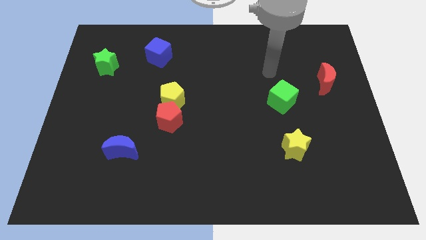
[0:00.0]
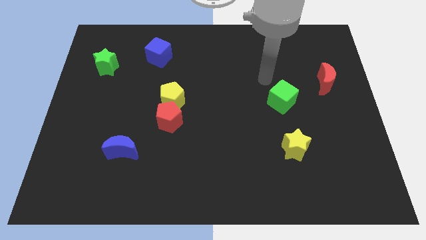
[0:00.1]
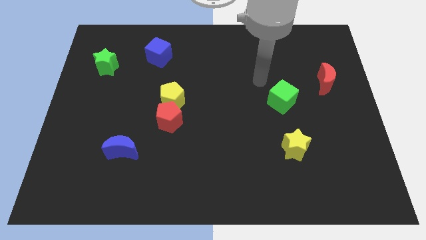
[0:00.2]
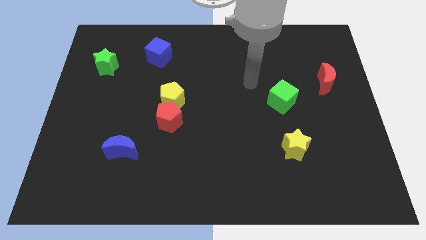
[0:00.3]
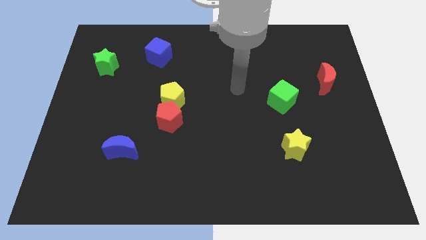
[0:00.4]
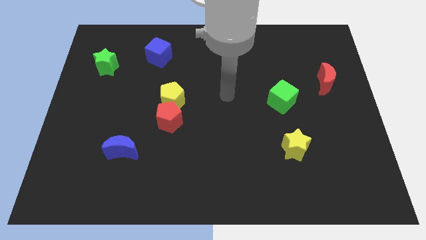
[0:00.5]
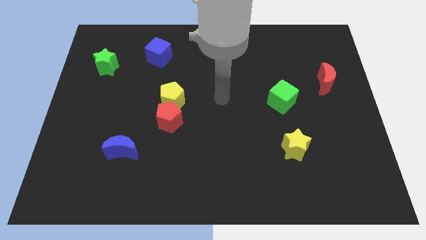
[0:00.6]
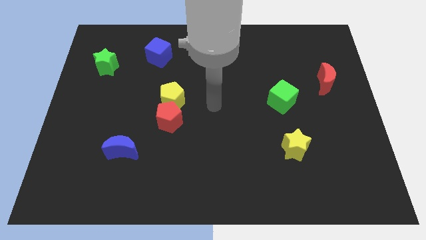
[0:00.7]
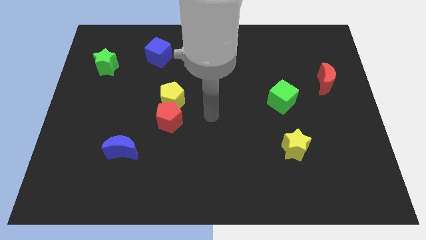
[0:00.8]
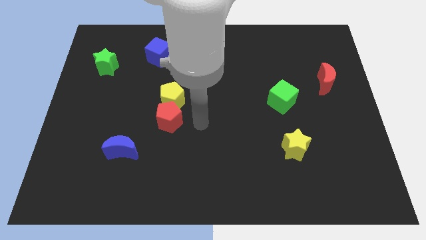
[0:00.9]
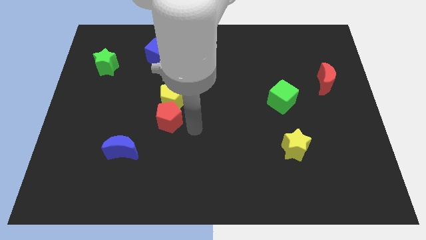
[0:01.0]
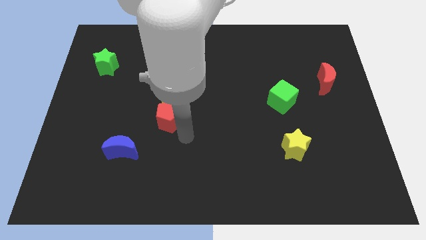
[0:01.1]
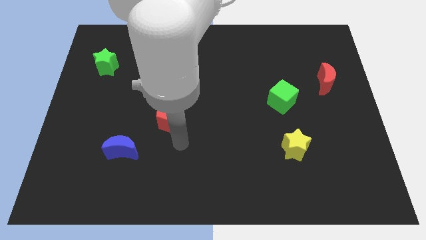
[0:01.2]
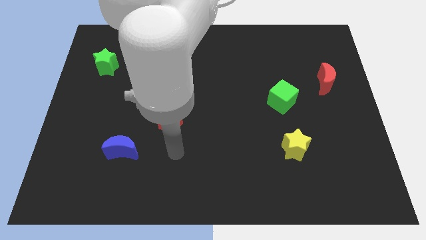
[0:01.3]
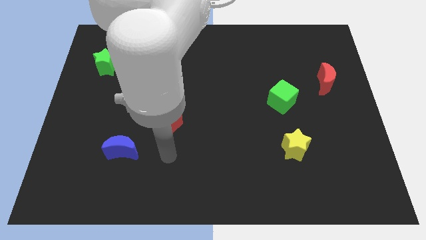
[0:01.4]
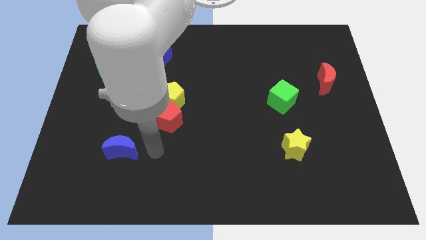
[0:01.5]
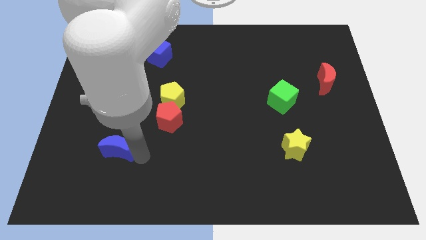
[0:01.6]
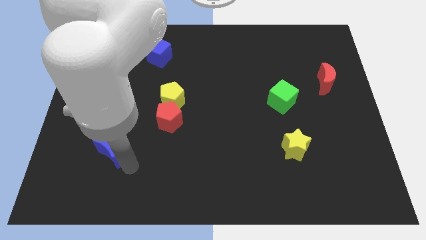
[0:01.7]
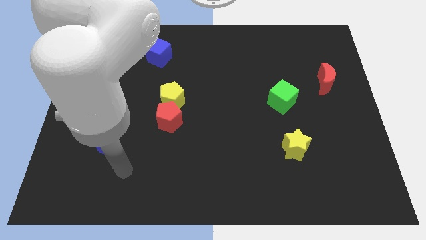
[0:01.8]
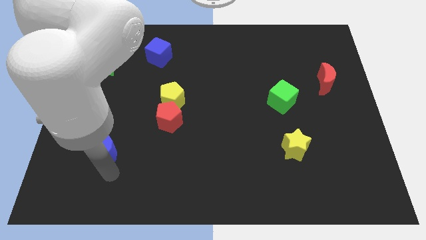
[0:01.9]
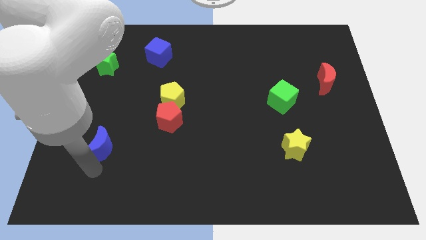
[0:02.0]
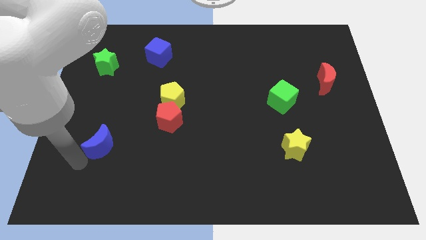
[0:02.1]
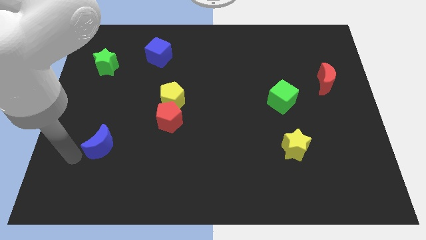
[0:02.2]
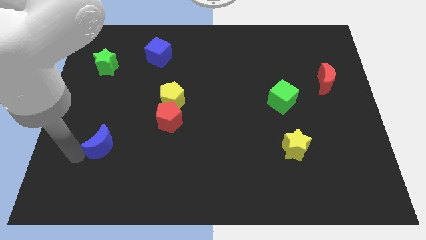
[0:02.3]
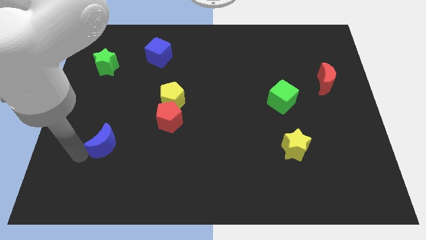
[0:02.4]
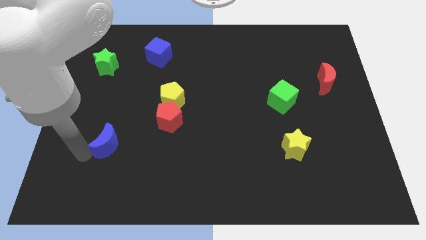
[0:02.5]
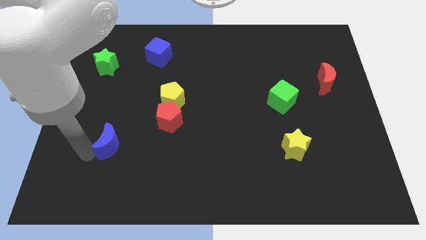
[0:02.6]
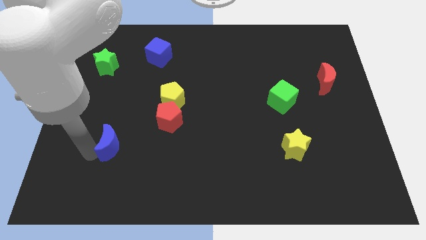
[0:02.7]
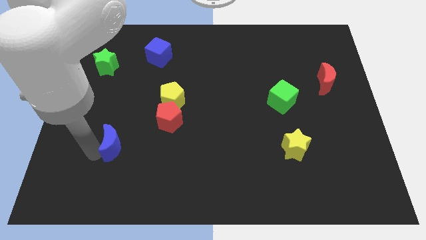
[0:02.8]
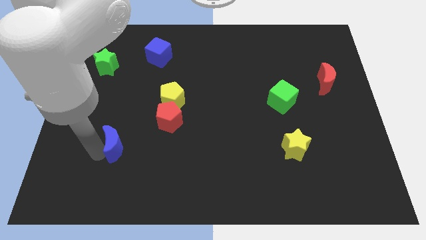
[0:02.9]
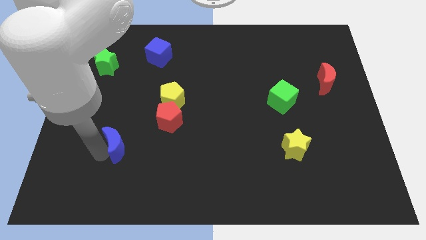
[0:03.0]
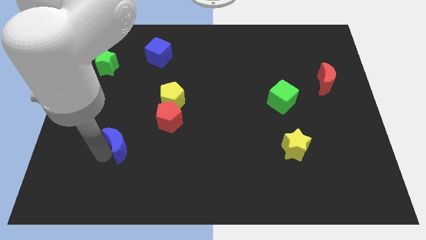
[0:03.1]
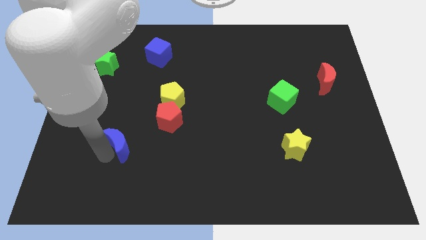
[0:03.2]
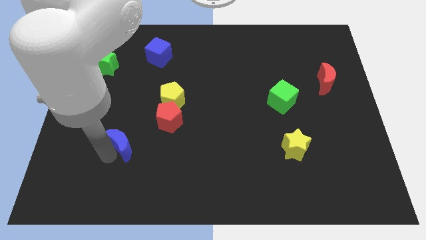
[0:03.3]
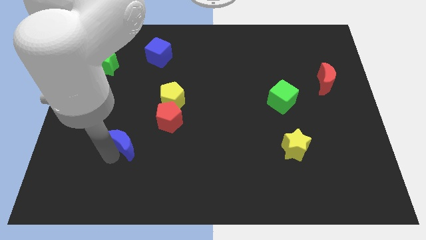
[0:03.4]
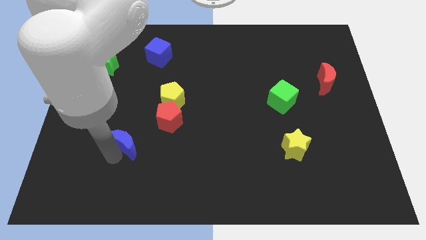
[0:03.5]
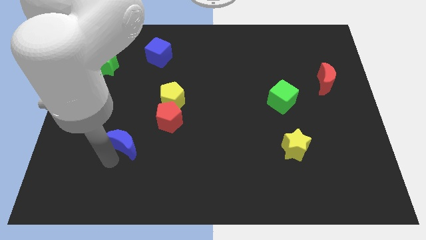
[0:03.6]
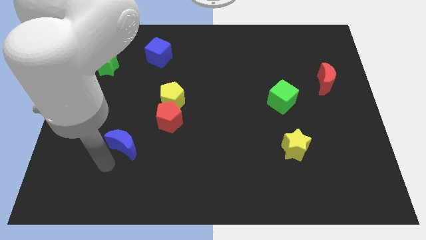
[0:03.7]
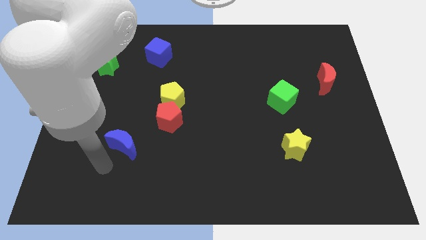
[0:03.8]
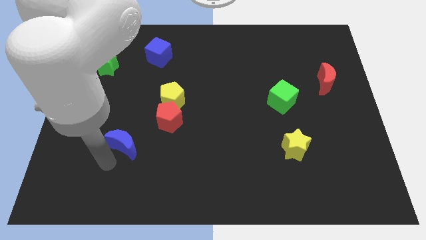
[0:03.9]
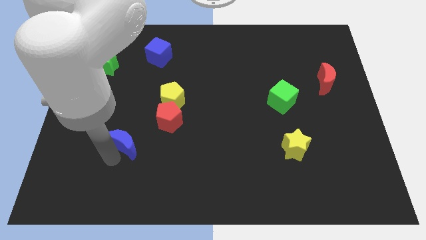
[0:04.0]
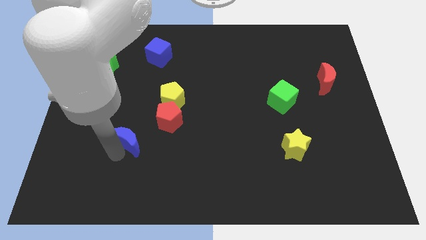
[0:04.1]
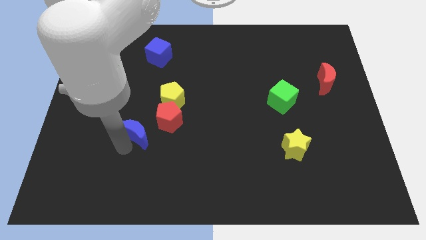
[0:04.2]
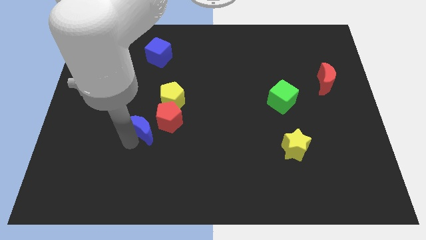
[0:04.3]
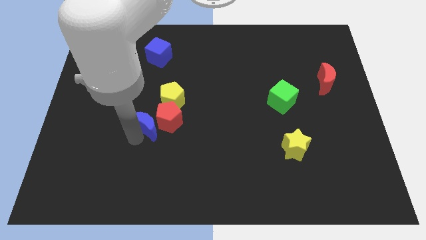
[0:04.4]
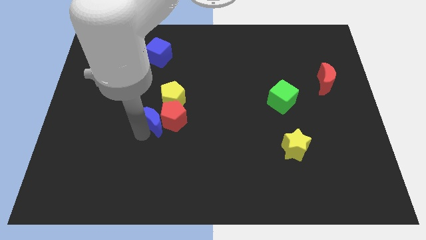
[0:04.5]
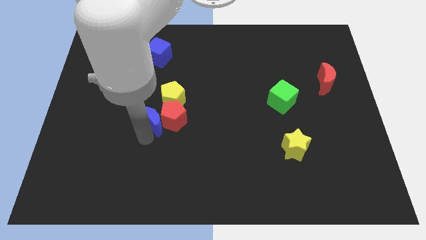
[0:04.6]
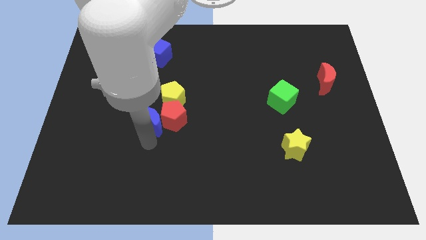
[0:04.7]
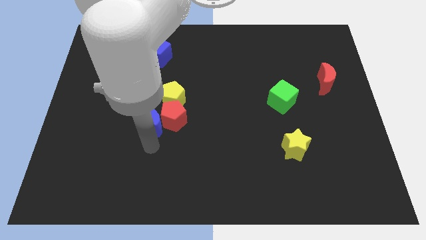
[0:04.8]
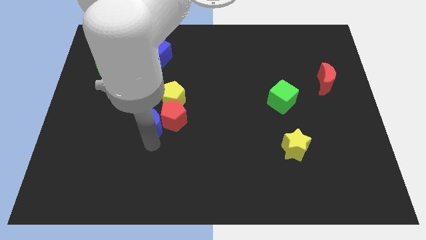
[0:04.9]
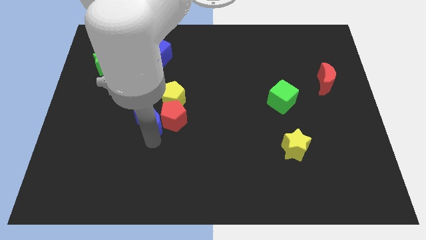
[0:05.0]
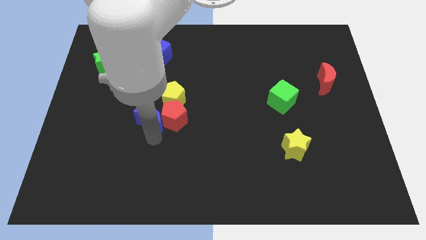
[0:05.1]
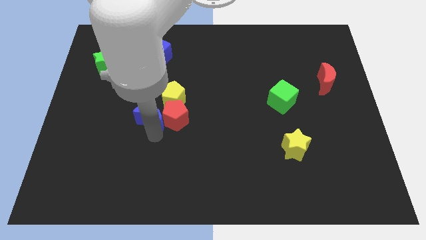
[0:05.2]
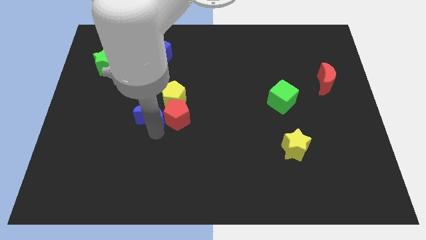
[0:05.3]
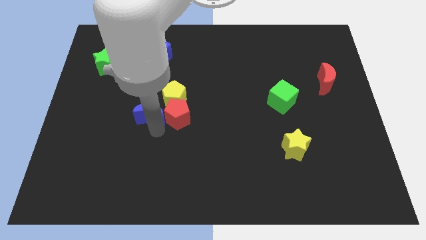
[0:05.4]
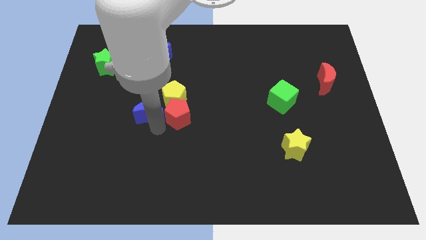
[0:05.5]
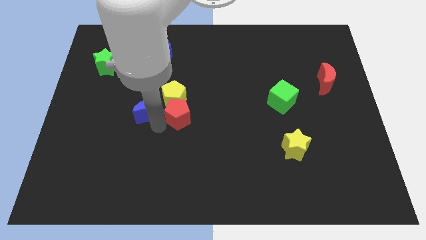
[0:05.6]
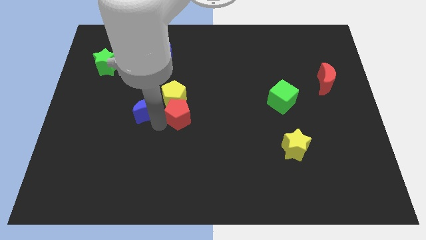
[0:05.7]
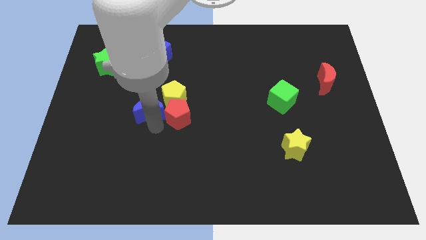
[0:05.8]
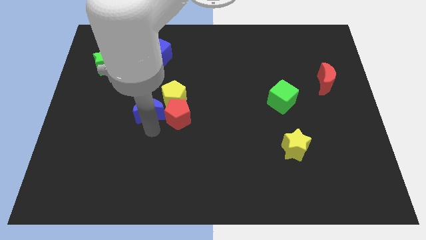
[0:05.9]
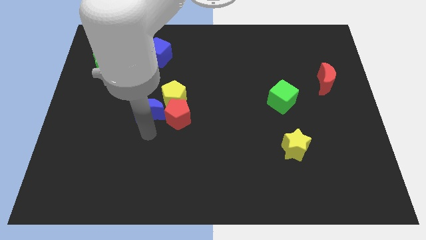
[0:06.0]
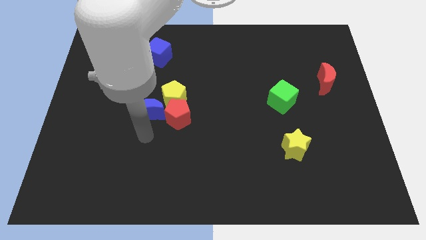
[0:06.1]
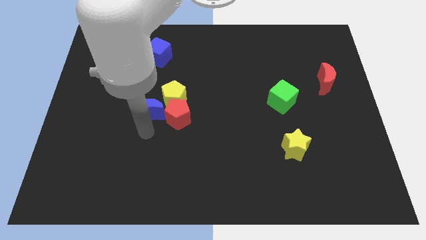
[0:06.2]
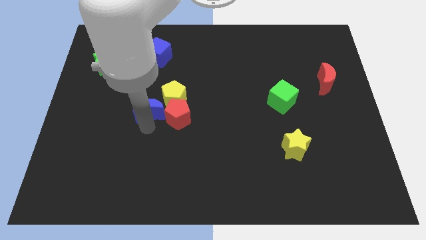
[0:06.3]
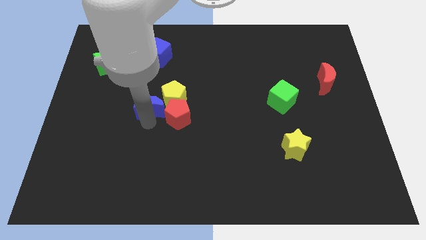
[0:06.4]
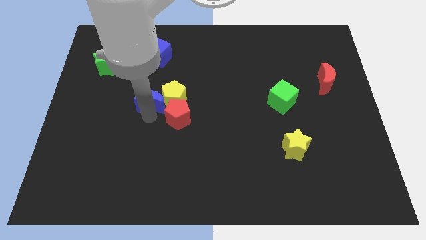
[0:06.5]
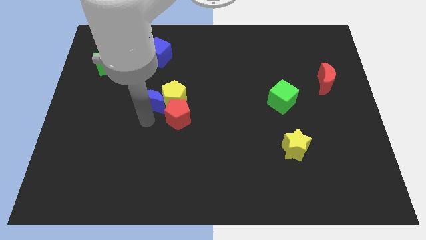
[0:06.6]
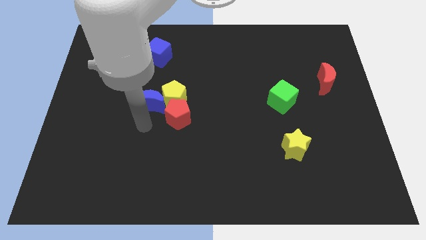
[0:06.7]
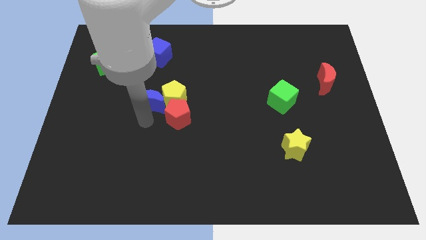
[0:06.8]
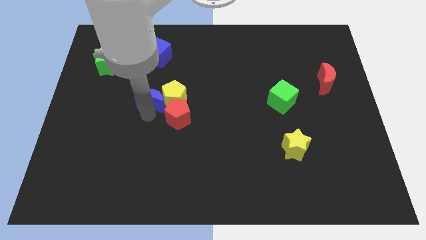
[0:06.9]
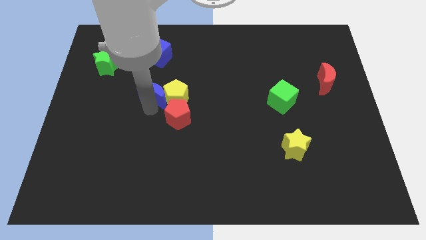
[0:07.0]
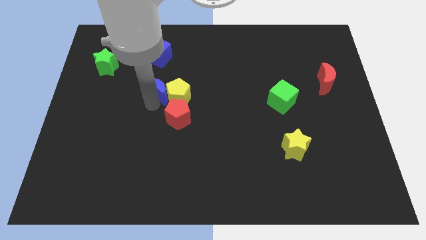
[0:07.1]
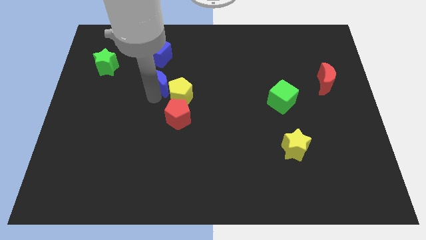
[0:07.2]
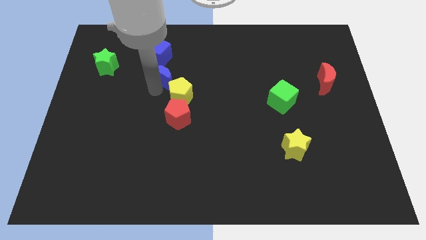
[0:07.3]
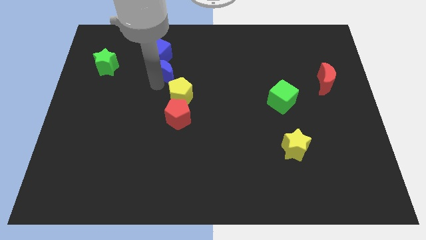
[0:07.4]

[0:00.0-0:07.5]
slide the blue moon above the yellow pentagon
